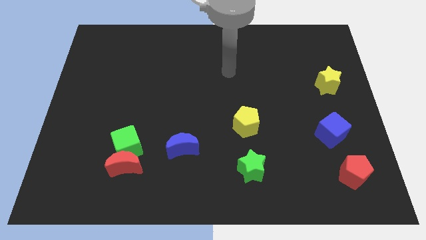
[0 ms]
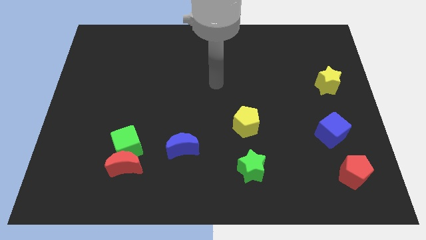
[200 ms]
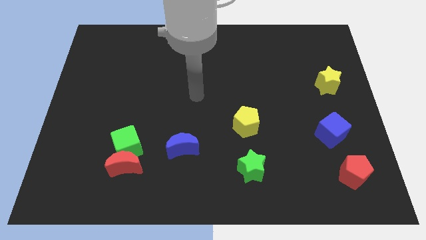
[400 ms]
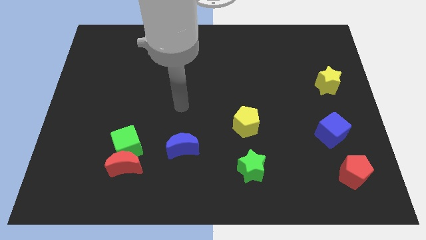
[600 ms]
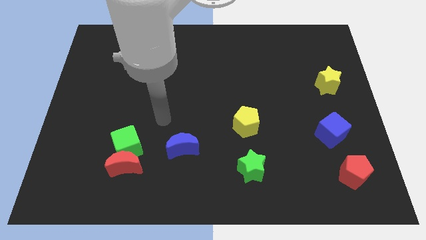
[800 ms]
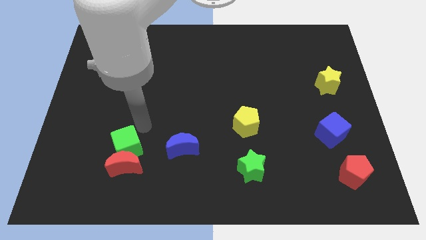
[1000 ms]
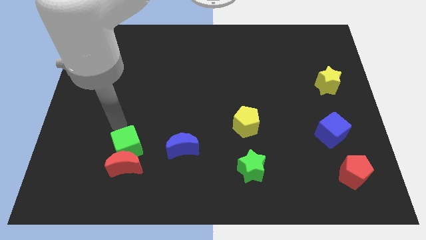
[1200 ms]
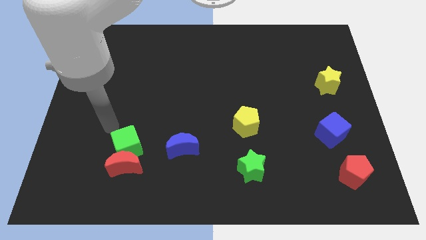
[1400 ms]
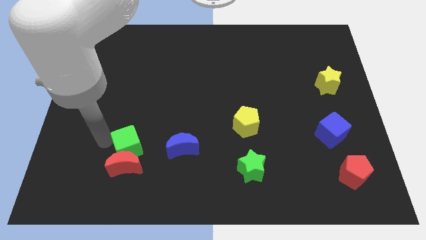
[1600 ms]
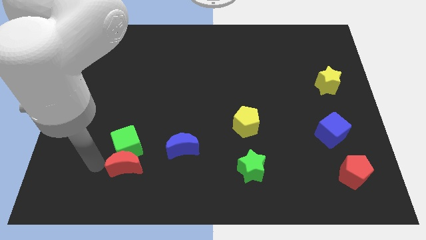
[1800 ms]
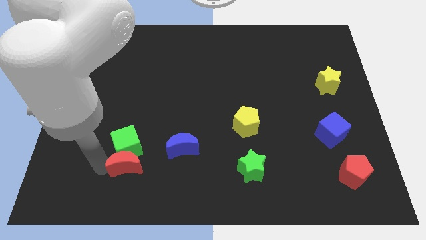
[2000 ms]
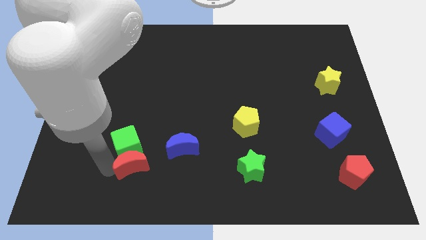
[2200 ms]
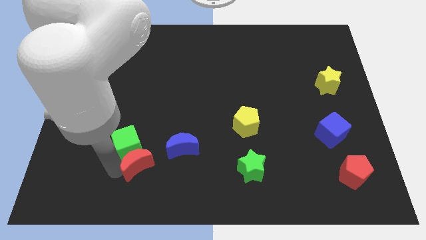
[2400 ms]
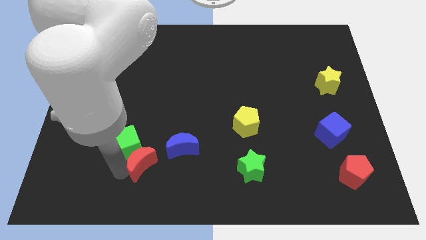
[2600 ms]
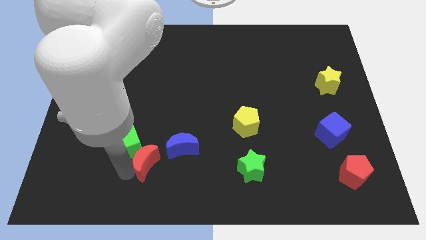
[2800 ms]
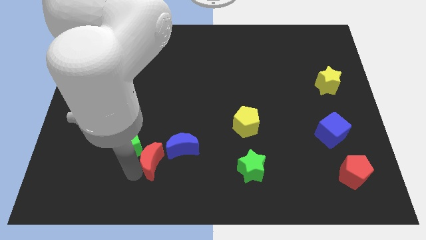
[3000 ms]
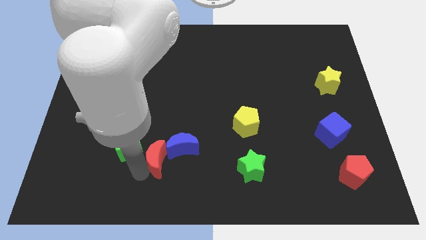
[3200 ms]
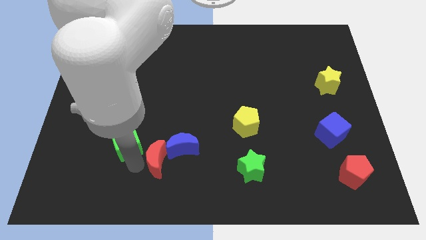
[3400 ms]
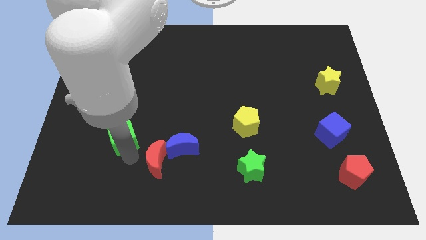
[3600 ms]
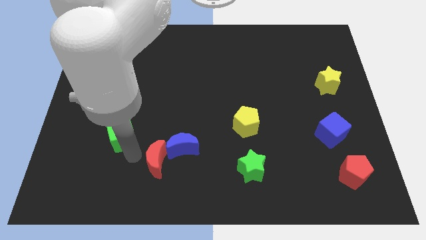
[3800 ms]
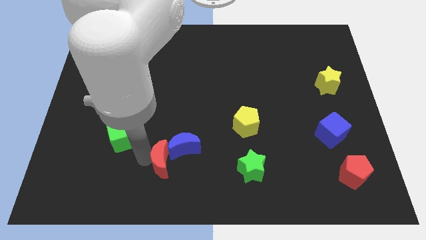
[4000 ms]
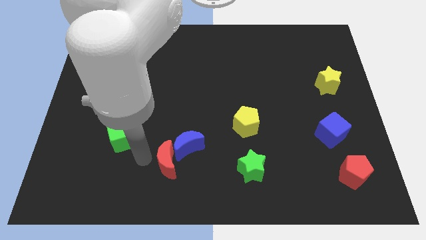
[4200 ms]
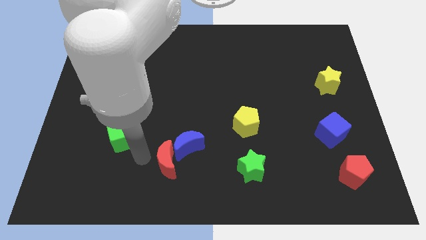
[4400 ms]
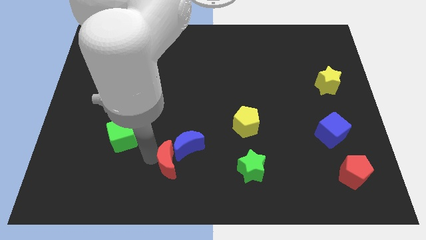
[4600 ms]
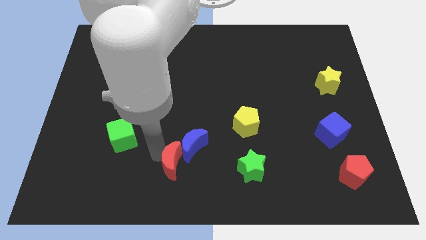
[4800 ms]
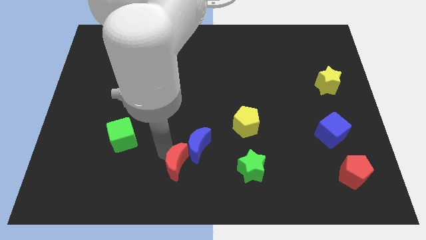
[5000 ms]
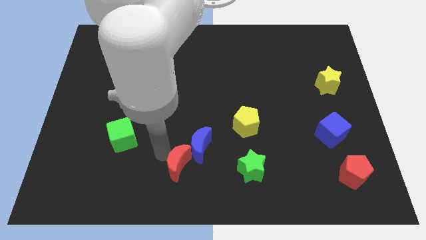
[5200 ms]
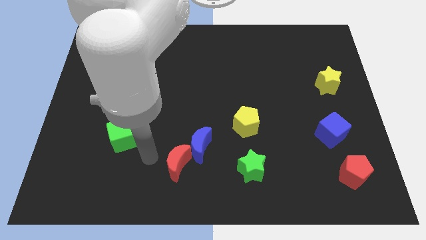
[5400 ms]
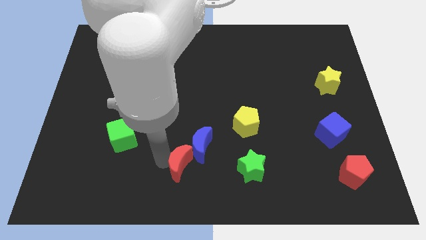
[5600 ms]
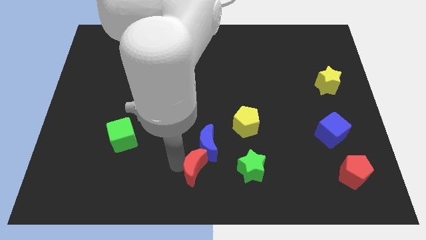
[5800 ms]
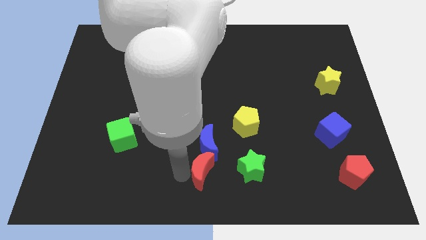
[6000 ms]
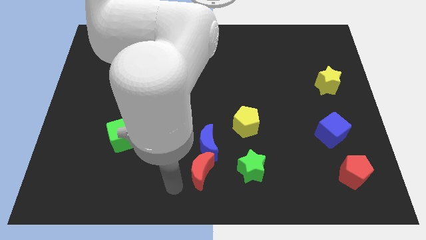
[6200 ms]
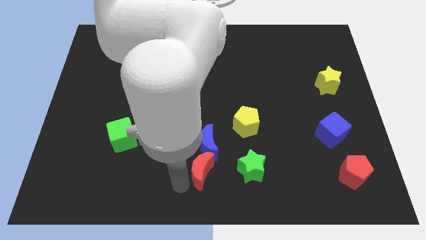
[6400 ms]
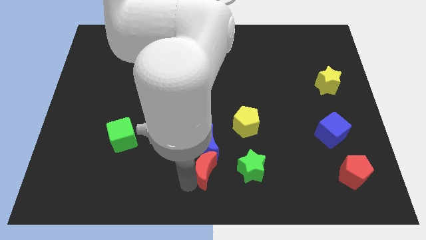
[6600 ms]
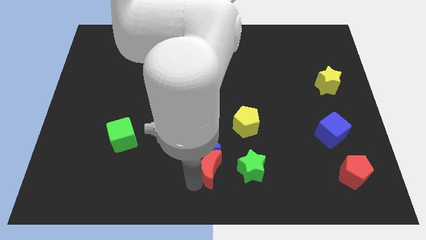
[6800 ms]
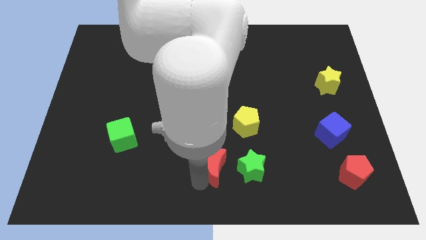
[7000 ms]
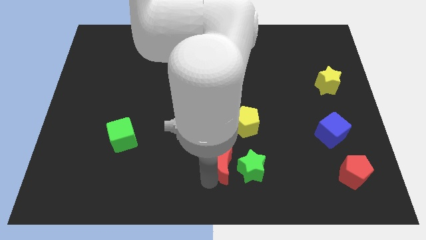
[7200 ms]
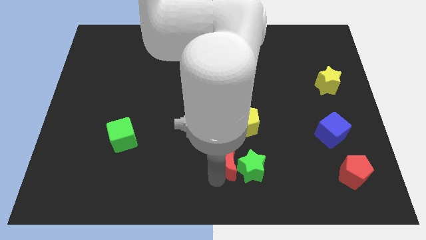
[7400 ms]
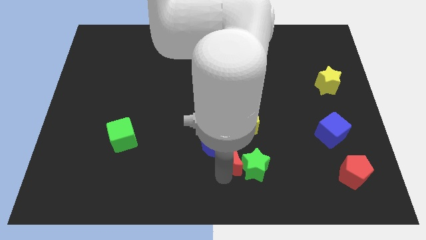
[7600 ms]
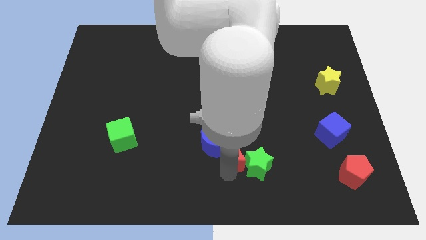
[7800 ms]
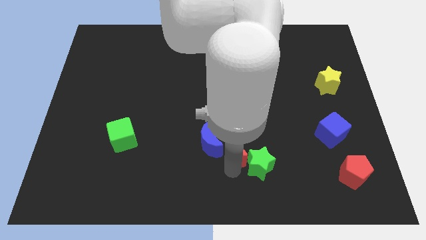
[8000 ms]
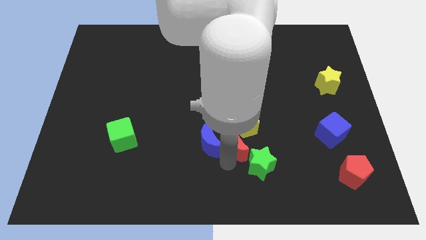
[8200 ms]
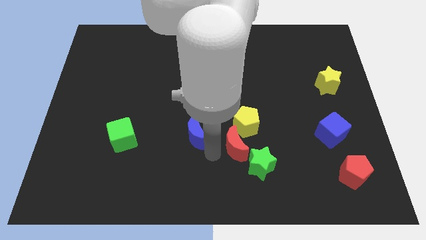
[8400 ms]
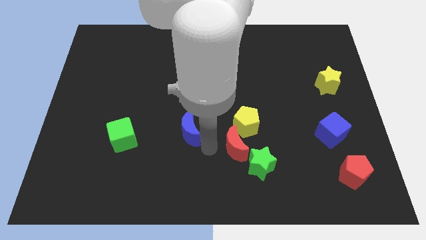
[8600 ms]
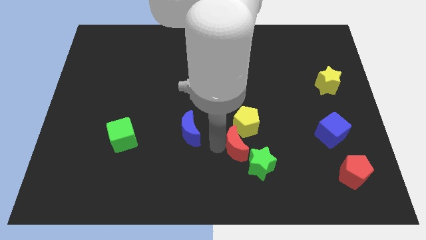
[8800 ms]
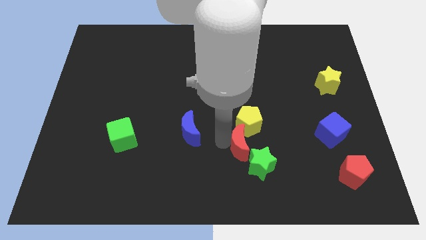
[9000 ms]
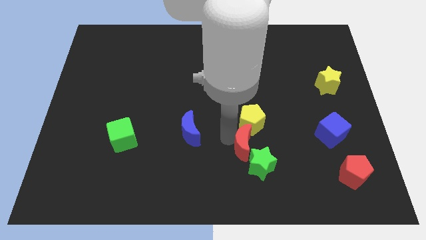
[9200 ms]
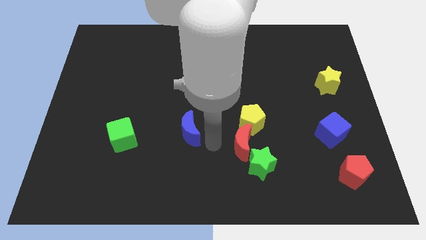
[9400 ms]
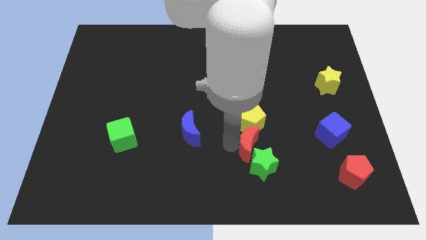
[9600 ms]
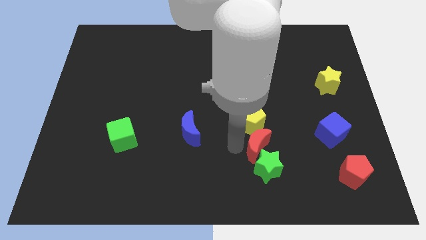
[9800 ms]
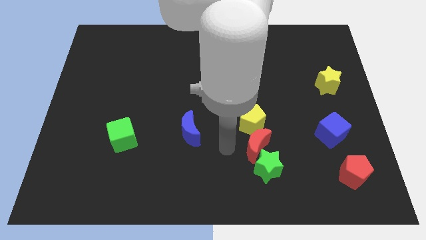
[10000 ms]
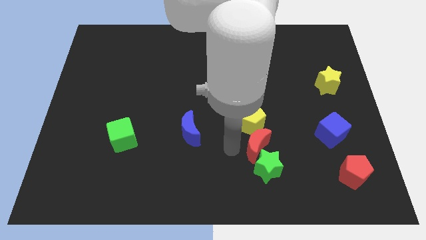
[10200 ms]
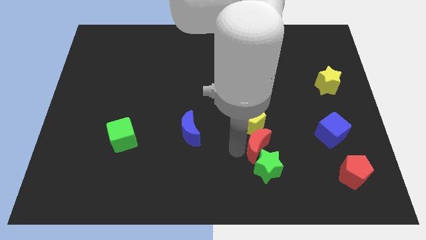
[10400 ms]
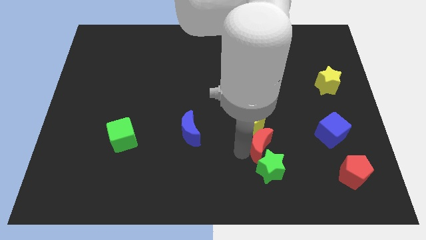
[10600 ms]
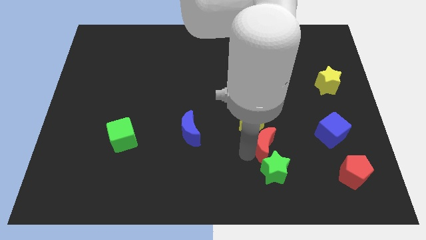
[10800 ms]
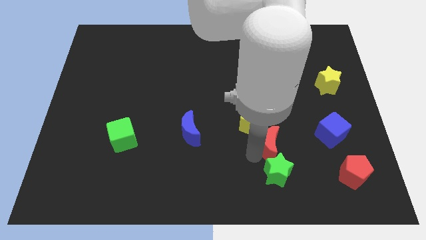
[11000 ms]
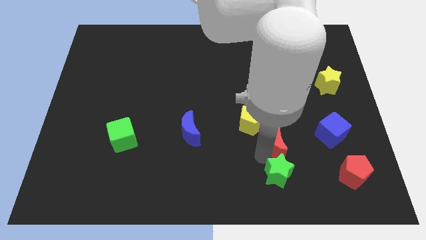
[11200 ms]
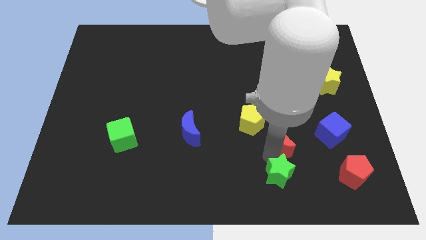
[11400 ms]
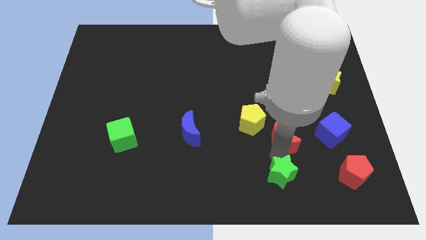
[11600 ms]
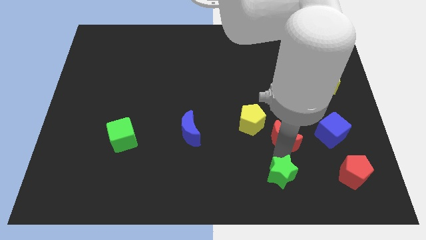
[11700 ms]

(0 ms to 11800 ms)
put the red moon just right of the yellow pentagon

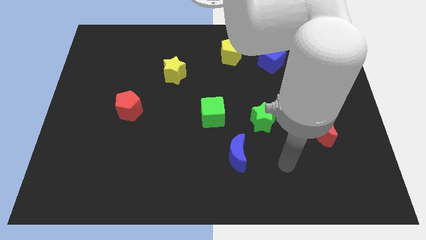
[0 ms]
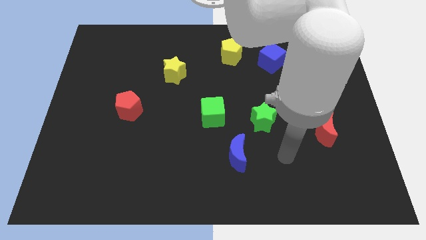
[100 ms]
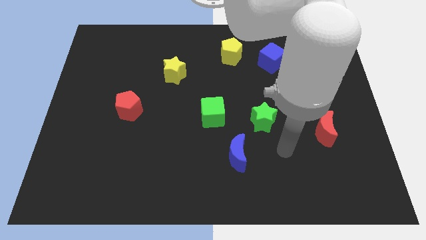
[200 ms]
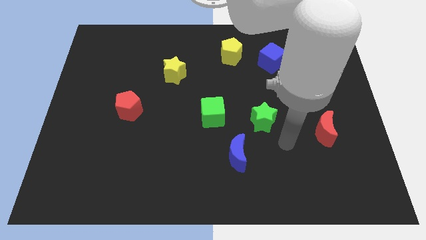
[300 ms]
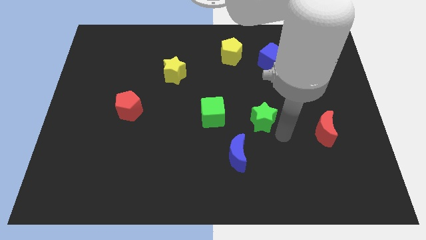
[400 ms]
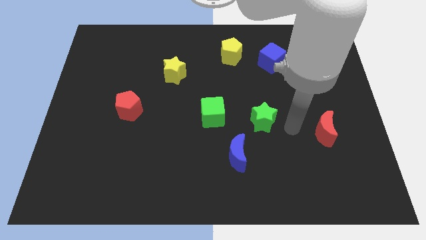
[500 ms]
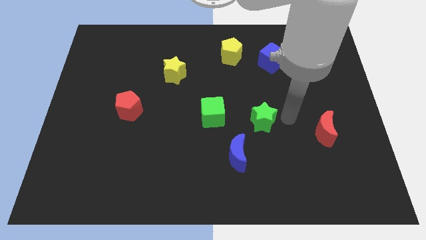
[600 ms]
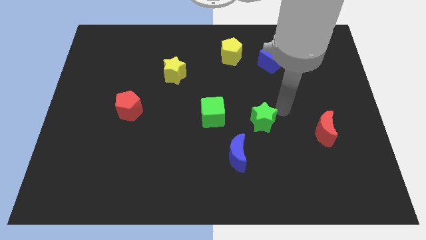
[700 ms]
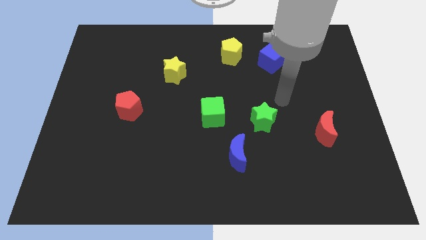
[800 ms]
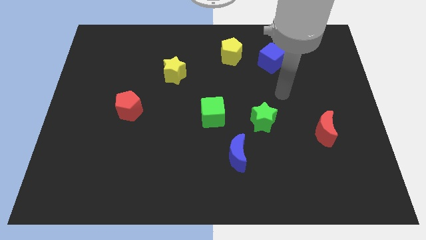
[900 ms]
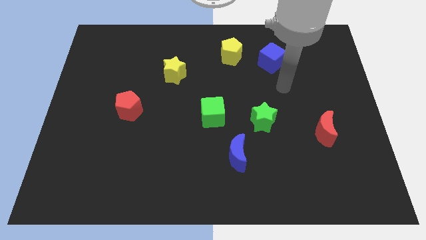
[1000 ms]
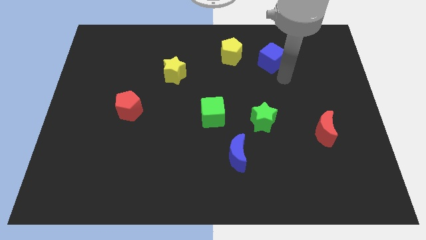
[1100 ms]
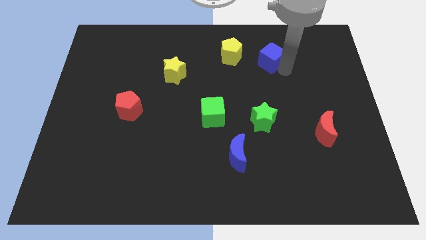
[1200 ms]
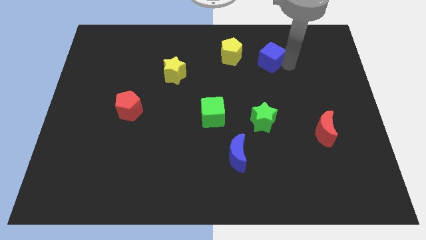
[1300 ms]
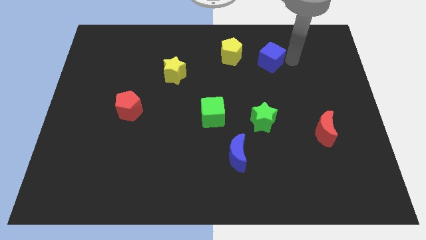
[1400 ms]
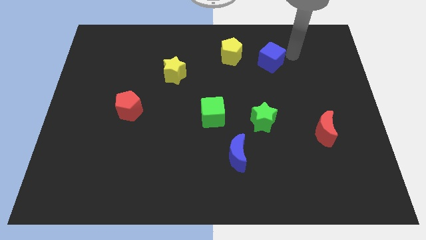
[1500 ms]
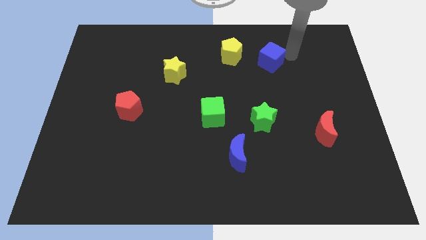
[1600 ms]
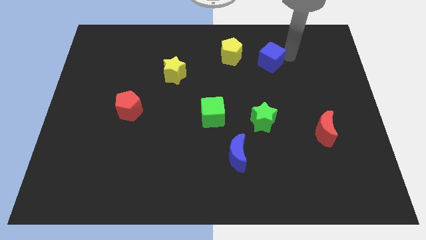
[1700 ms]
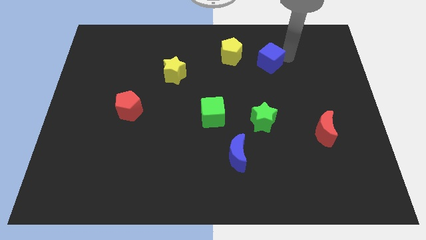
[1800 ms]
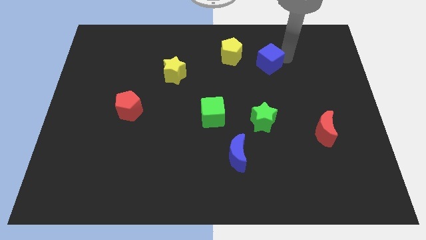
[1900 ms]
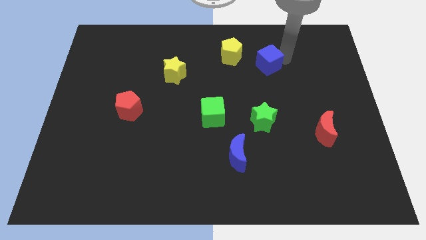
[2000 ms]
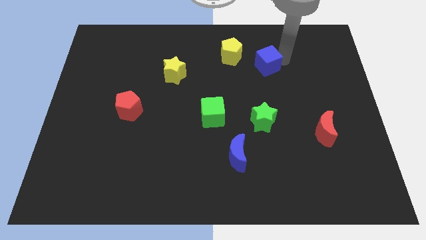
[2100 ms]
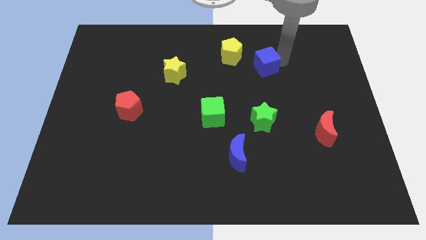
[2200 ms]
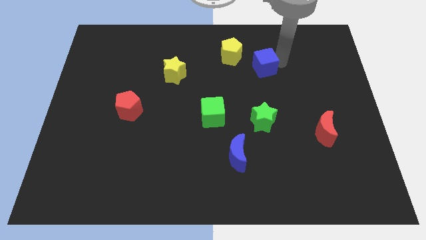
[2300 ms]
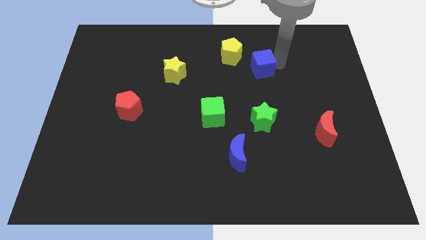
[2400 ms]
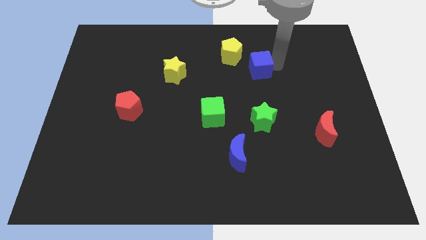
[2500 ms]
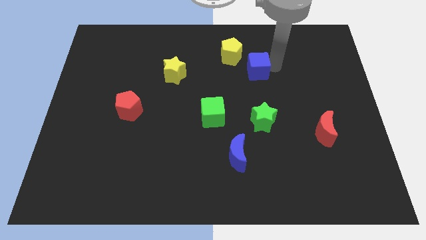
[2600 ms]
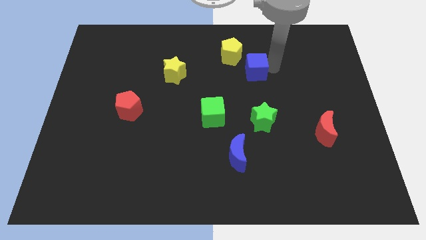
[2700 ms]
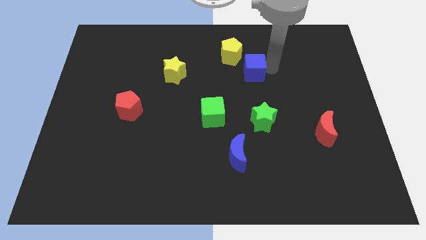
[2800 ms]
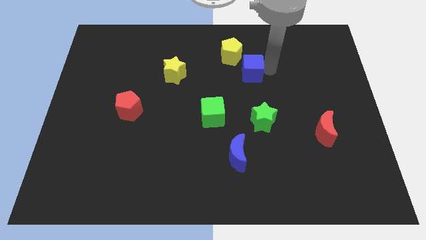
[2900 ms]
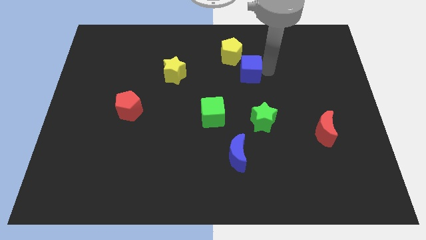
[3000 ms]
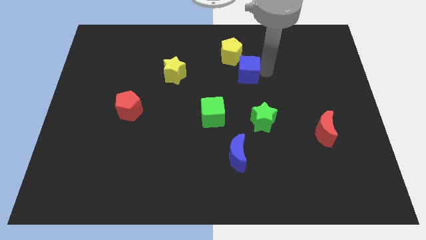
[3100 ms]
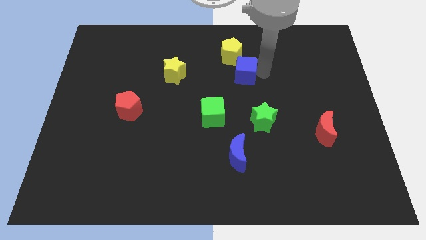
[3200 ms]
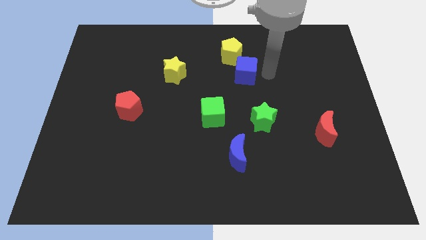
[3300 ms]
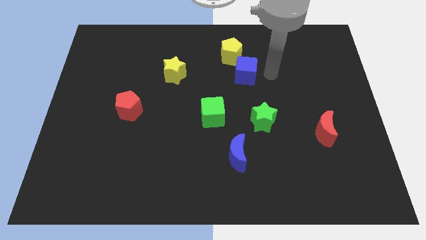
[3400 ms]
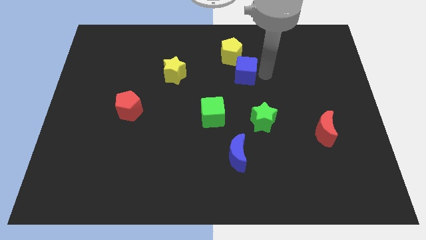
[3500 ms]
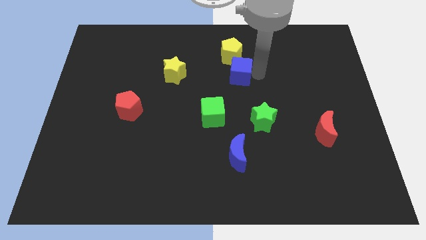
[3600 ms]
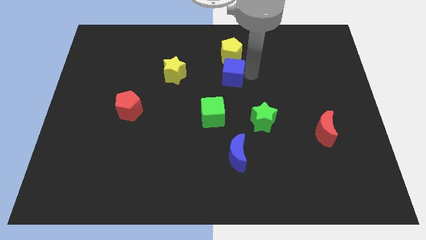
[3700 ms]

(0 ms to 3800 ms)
move the blue cube to the right of the yellow star
